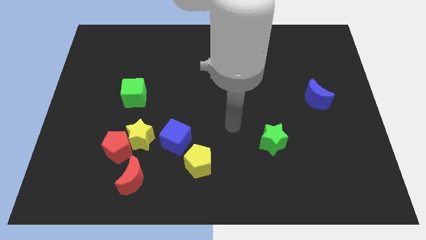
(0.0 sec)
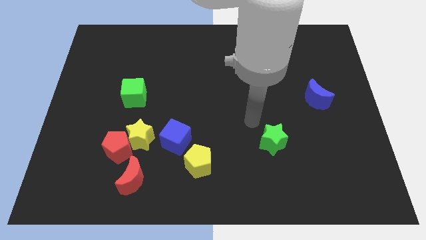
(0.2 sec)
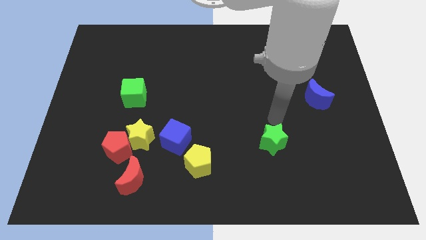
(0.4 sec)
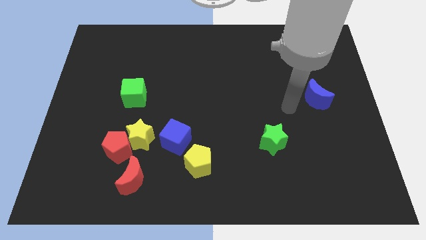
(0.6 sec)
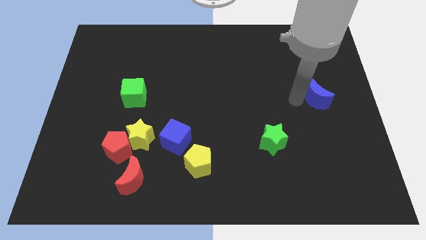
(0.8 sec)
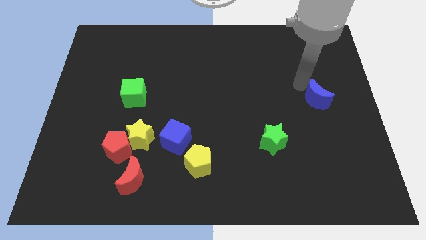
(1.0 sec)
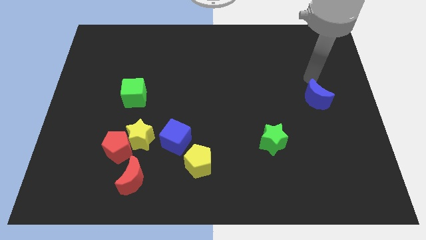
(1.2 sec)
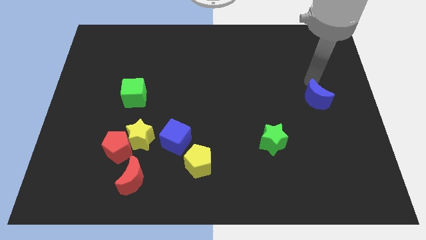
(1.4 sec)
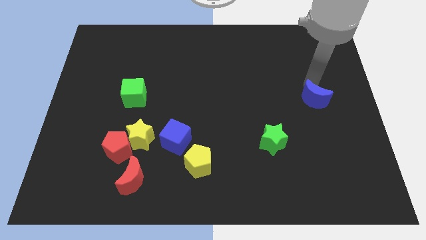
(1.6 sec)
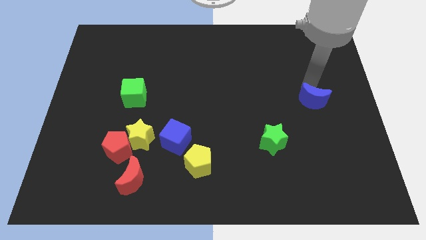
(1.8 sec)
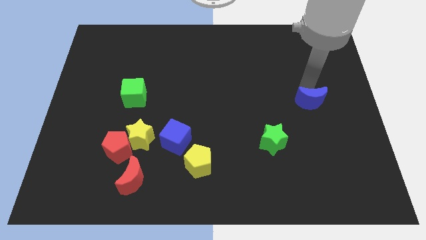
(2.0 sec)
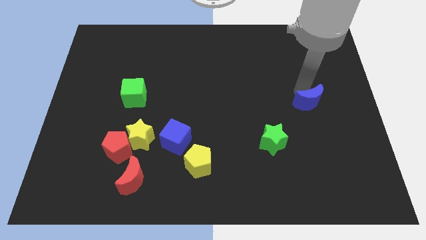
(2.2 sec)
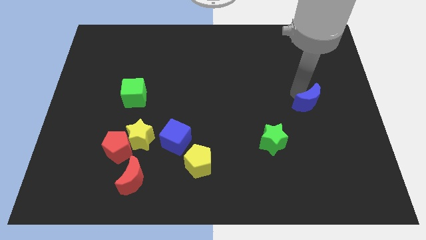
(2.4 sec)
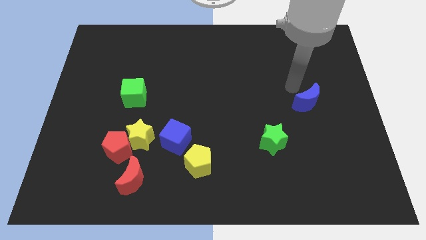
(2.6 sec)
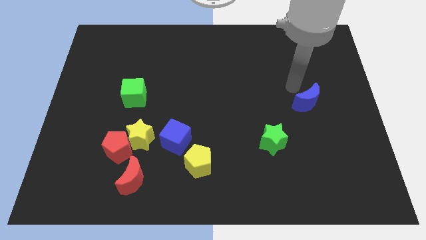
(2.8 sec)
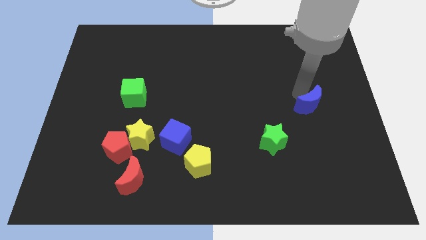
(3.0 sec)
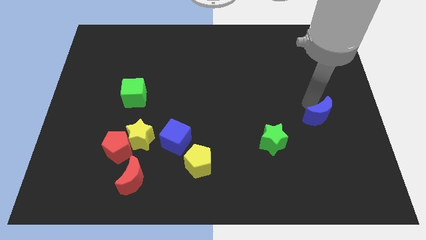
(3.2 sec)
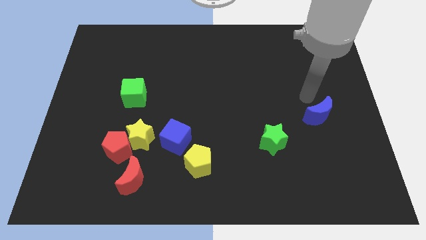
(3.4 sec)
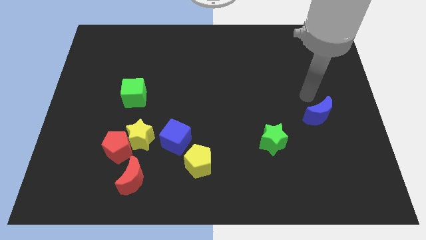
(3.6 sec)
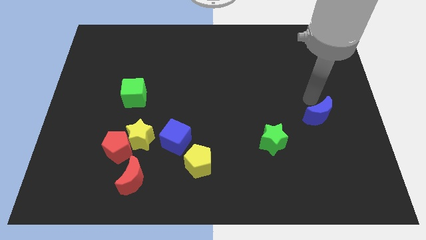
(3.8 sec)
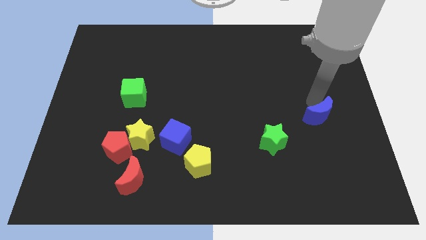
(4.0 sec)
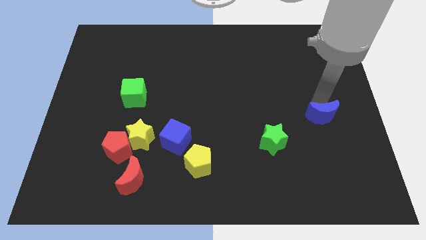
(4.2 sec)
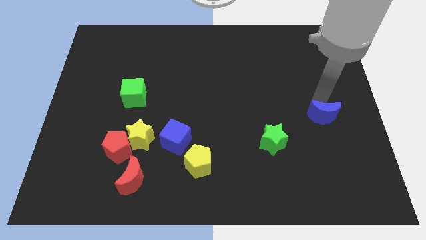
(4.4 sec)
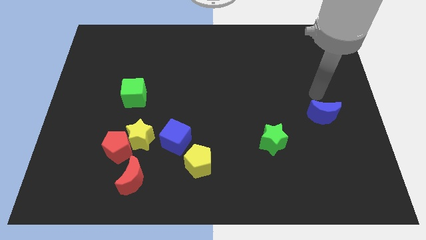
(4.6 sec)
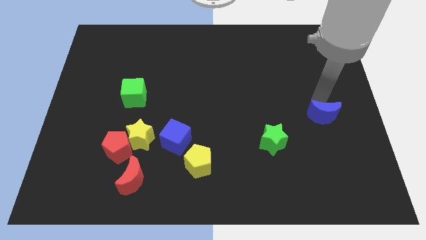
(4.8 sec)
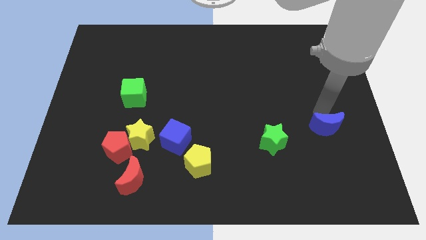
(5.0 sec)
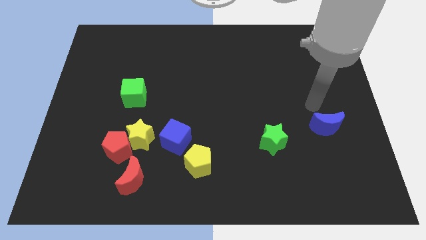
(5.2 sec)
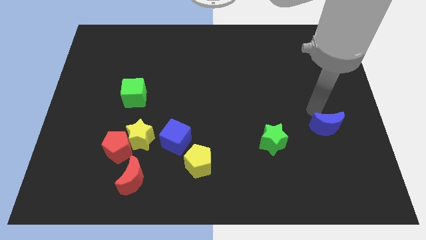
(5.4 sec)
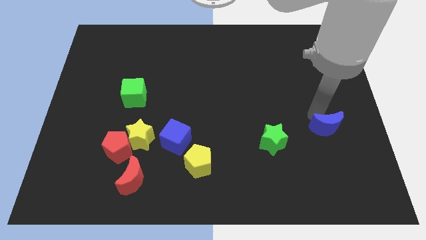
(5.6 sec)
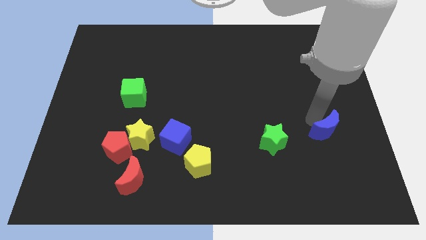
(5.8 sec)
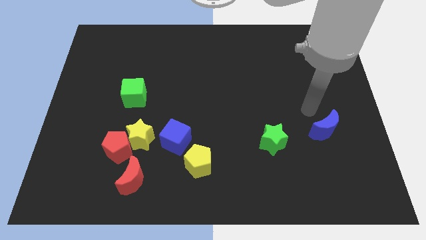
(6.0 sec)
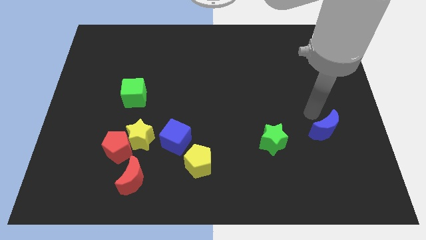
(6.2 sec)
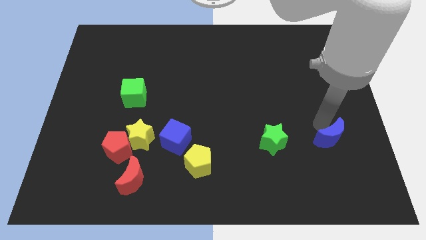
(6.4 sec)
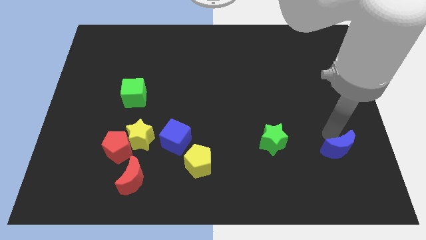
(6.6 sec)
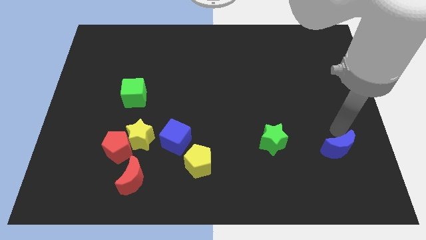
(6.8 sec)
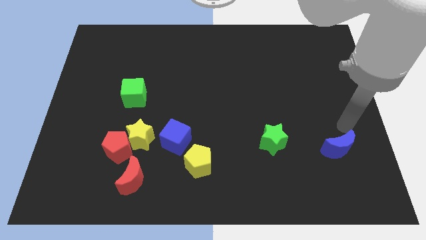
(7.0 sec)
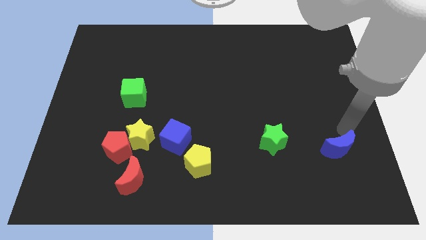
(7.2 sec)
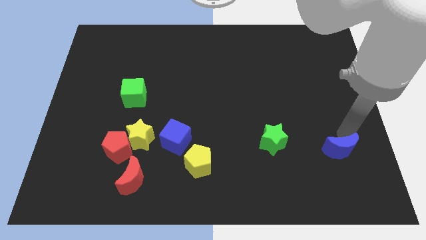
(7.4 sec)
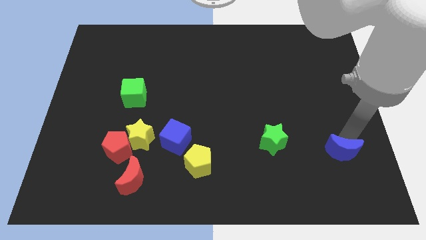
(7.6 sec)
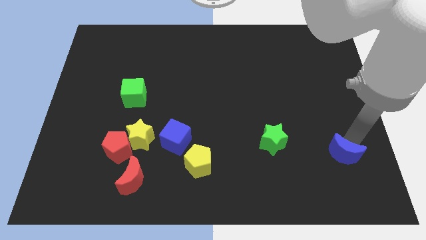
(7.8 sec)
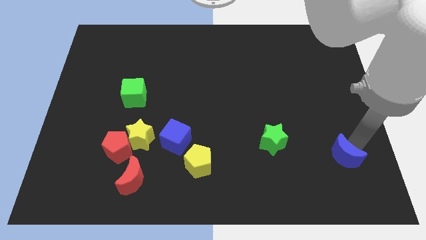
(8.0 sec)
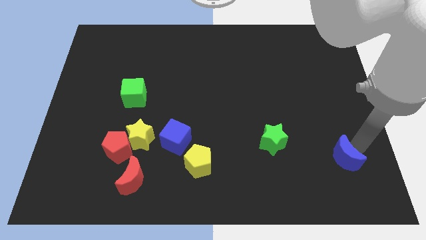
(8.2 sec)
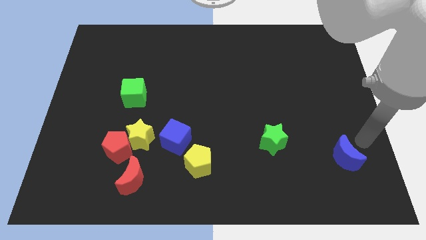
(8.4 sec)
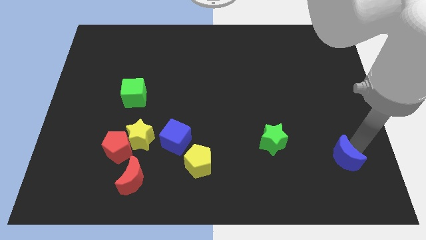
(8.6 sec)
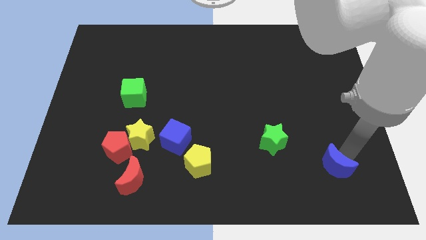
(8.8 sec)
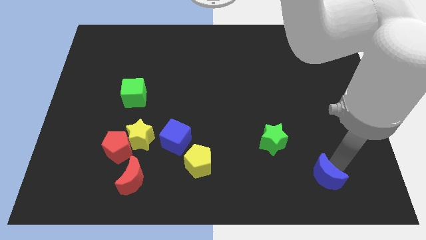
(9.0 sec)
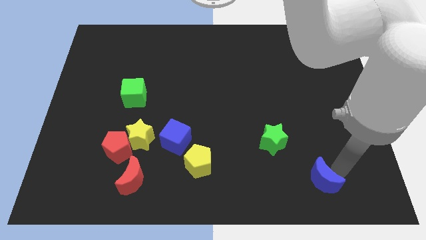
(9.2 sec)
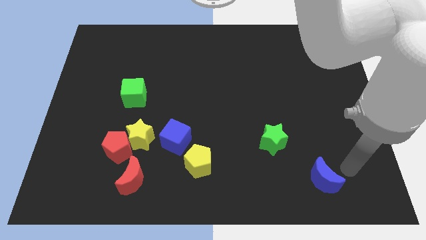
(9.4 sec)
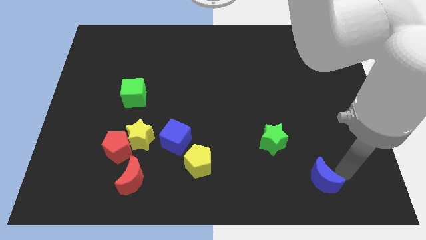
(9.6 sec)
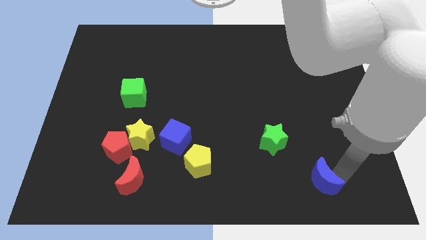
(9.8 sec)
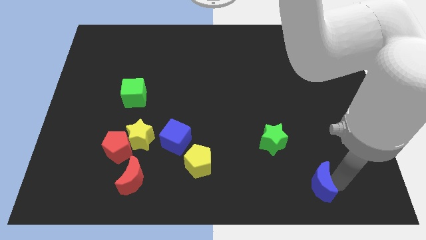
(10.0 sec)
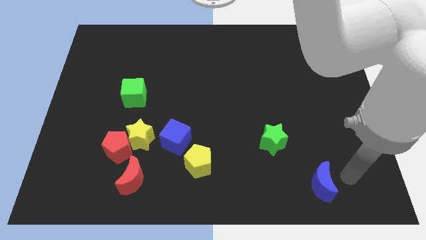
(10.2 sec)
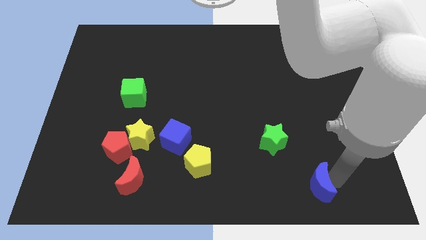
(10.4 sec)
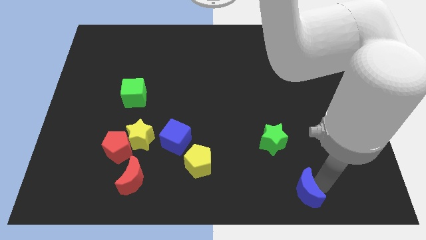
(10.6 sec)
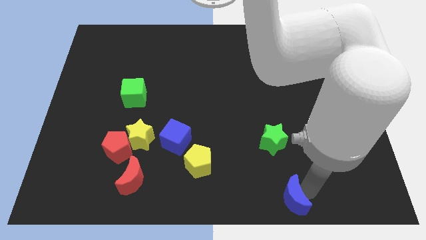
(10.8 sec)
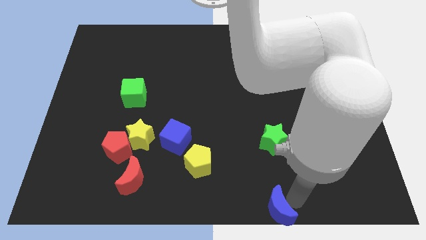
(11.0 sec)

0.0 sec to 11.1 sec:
push the blue moon to the bottom
